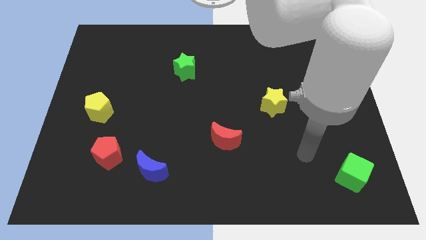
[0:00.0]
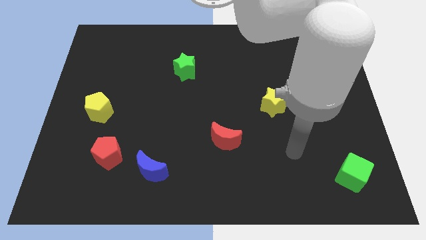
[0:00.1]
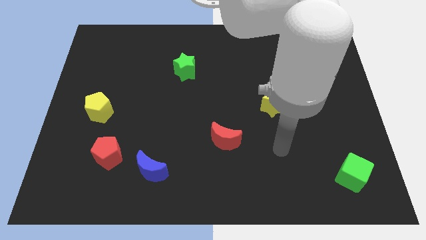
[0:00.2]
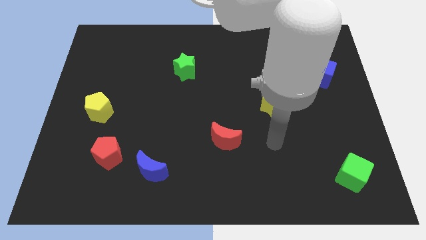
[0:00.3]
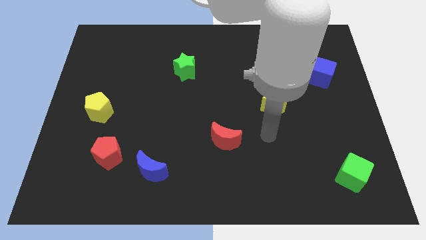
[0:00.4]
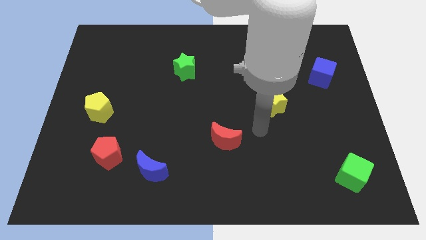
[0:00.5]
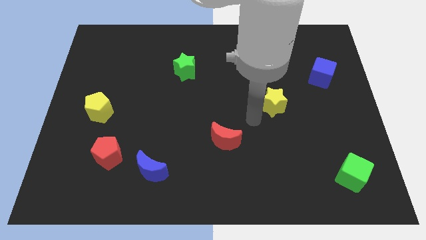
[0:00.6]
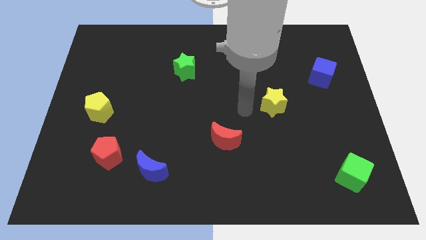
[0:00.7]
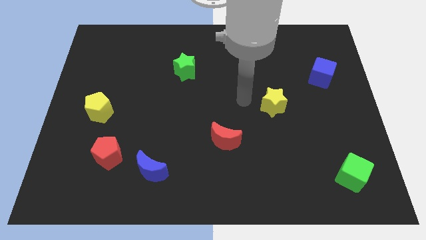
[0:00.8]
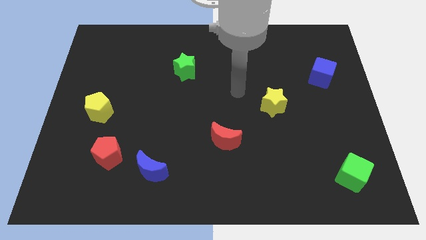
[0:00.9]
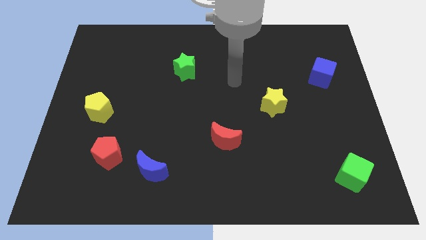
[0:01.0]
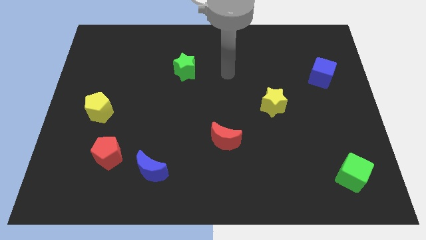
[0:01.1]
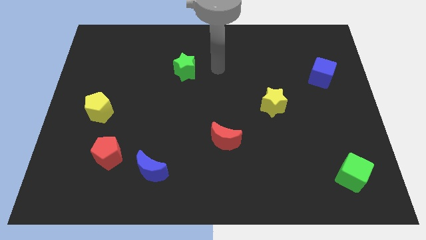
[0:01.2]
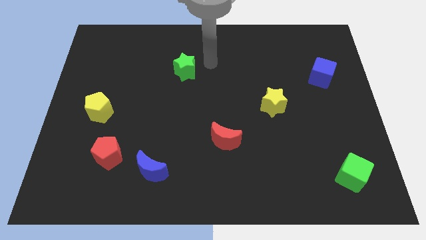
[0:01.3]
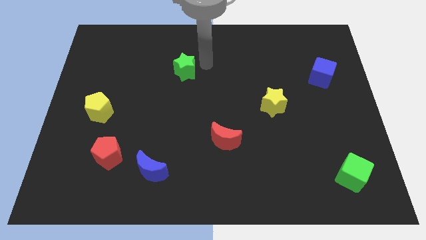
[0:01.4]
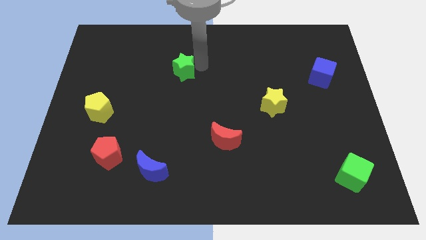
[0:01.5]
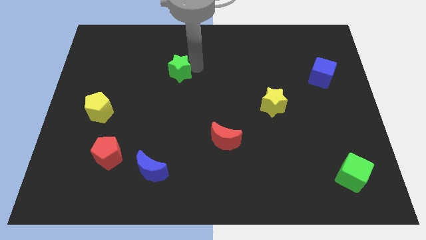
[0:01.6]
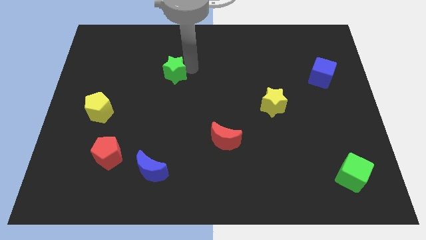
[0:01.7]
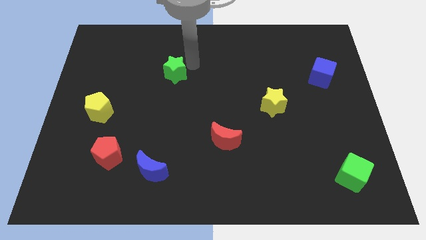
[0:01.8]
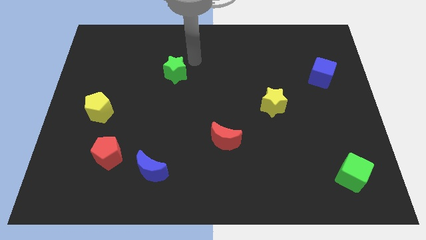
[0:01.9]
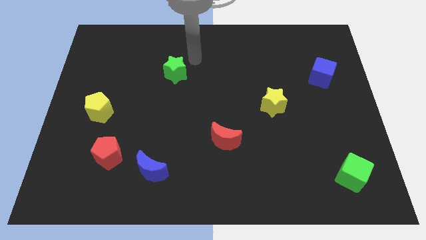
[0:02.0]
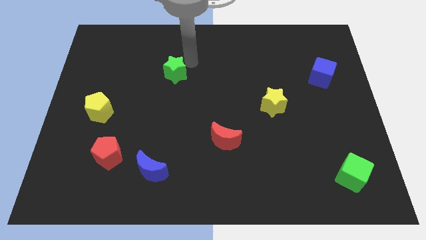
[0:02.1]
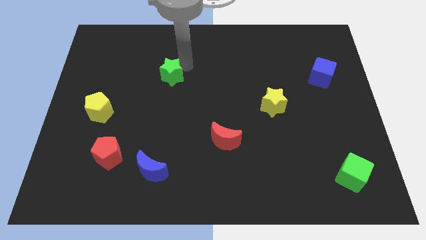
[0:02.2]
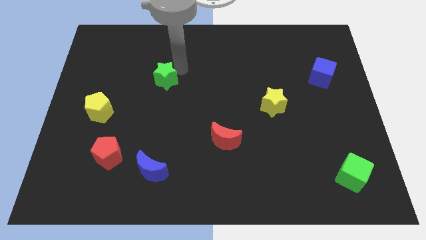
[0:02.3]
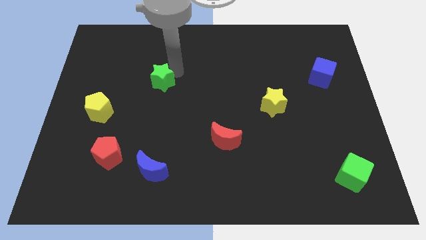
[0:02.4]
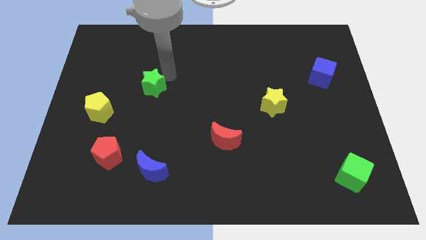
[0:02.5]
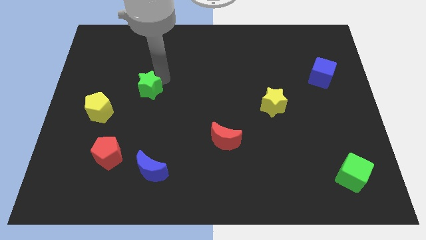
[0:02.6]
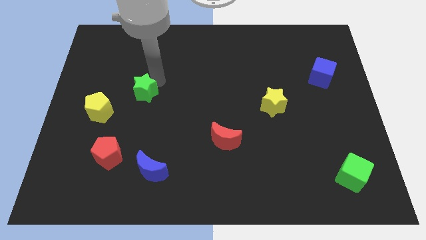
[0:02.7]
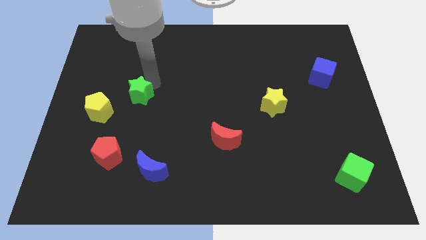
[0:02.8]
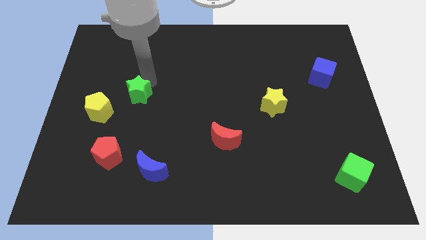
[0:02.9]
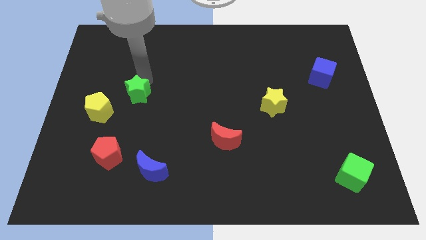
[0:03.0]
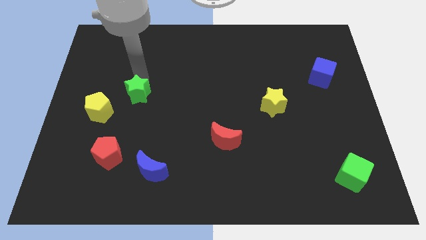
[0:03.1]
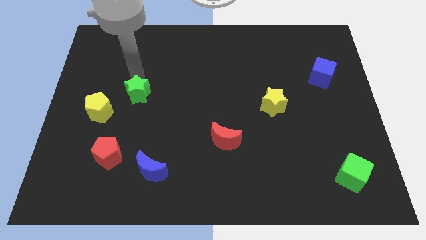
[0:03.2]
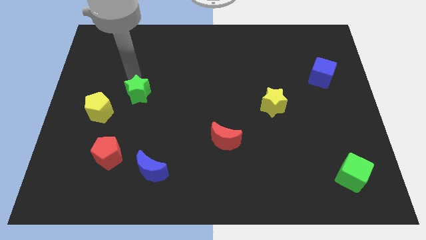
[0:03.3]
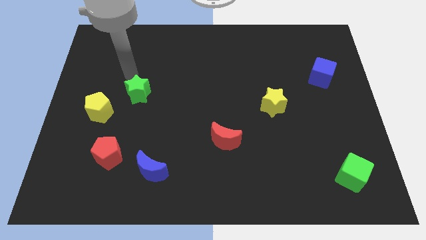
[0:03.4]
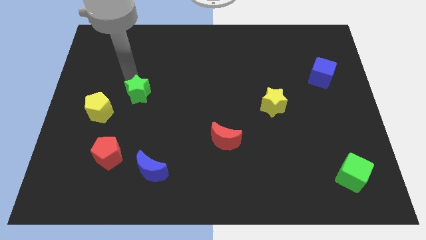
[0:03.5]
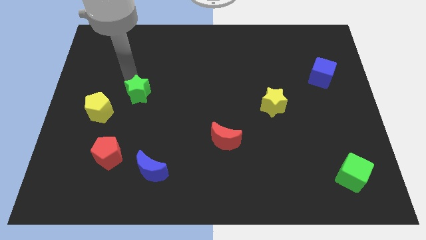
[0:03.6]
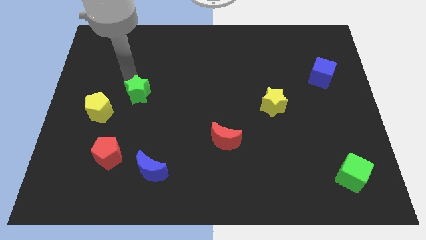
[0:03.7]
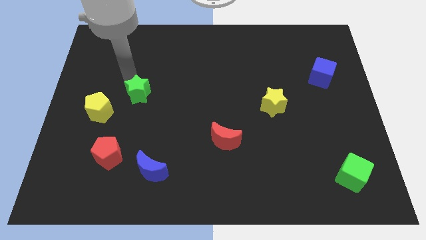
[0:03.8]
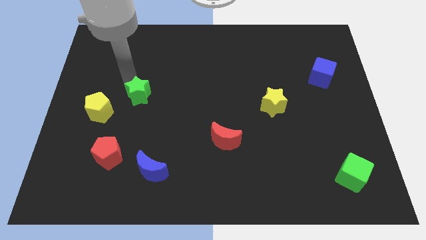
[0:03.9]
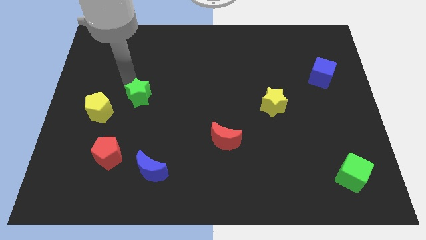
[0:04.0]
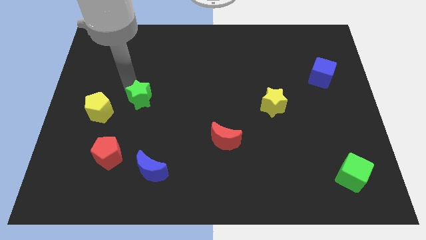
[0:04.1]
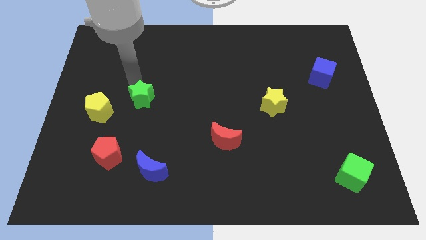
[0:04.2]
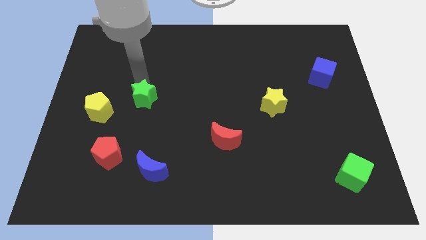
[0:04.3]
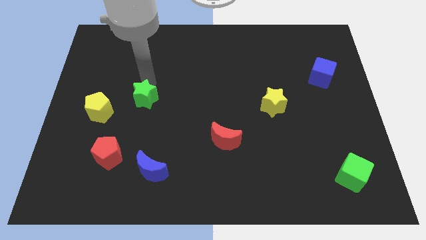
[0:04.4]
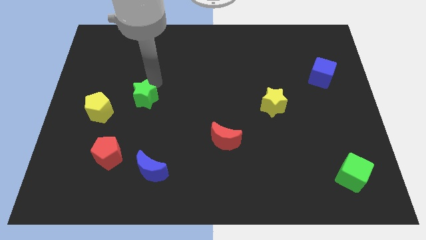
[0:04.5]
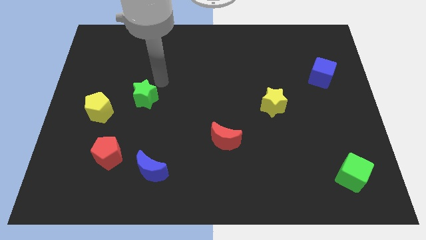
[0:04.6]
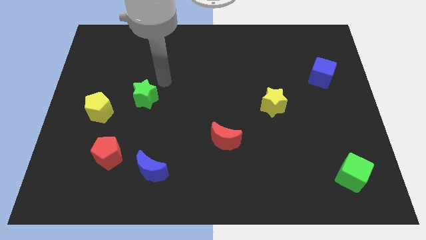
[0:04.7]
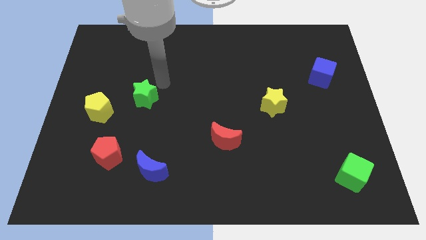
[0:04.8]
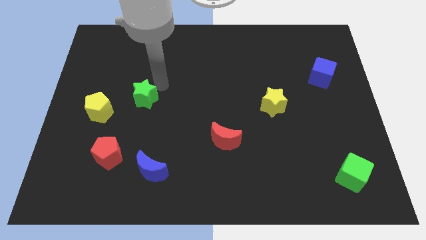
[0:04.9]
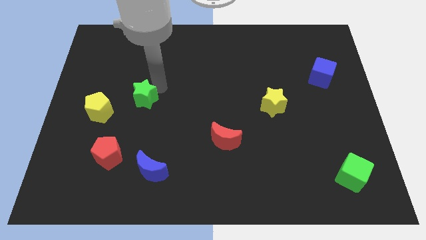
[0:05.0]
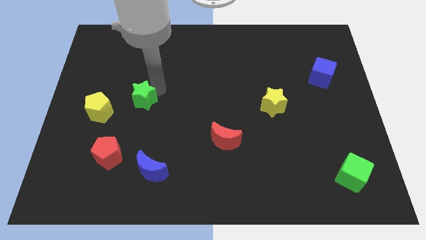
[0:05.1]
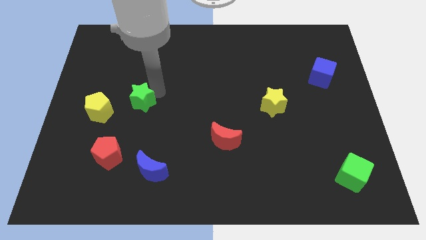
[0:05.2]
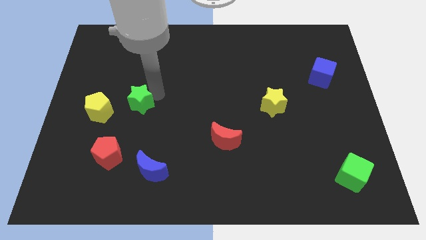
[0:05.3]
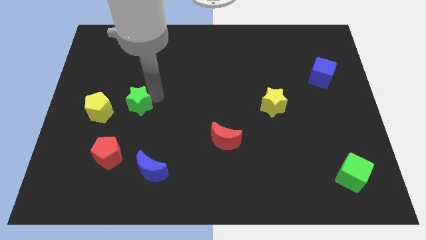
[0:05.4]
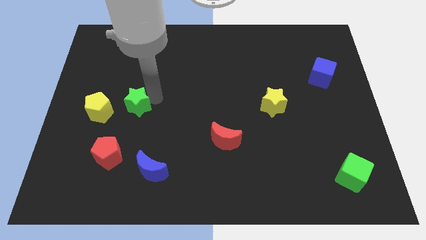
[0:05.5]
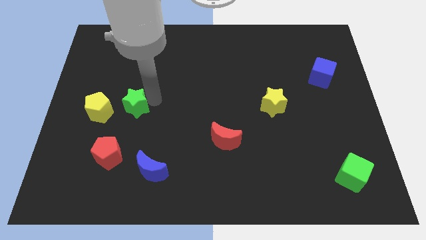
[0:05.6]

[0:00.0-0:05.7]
put the green star above the red pentagon
